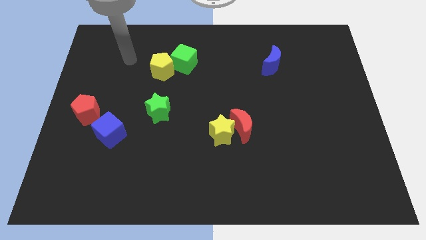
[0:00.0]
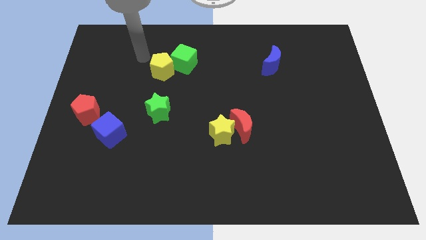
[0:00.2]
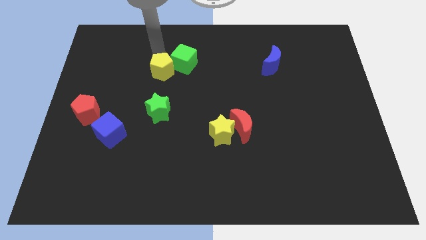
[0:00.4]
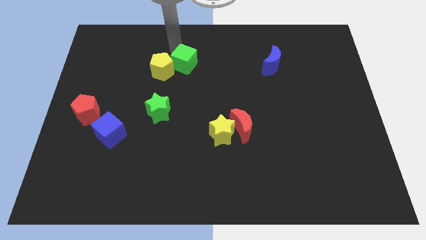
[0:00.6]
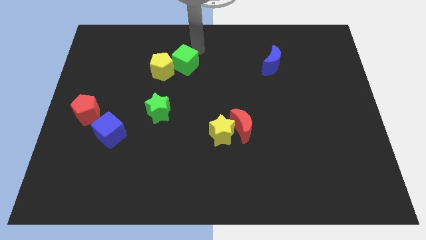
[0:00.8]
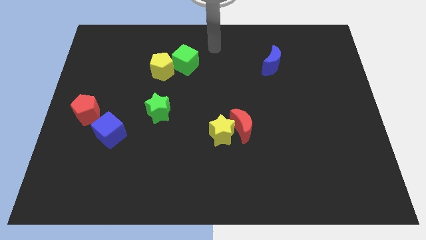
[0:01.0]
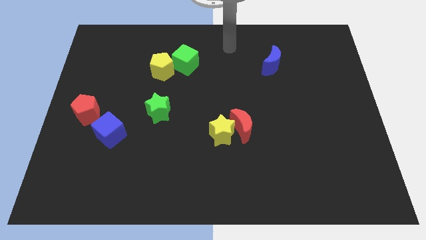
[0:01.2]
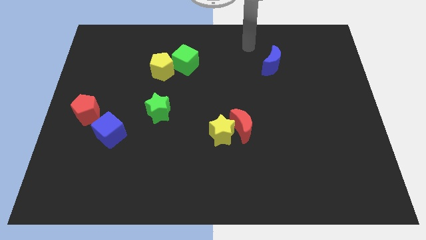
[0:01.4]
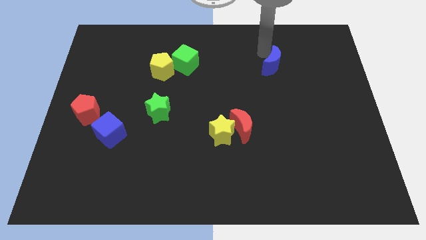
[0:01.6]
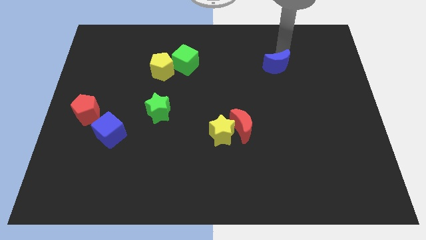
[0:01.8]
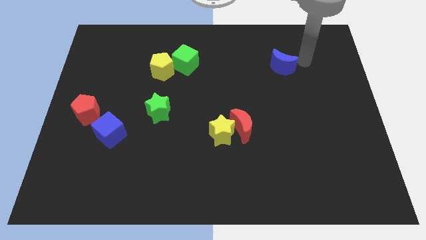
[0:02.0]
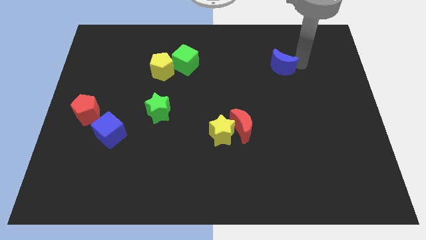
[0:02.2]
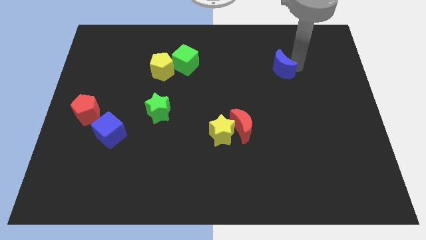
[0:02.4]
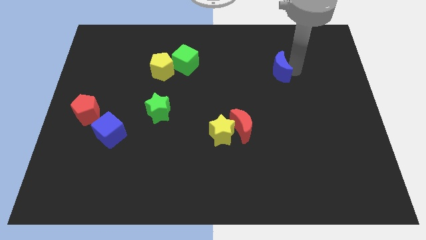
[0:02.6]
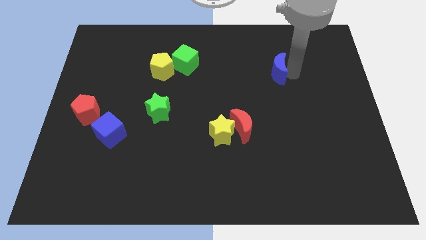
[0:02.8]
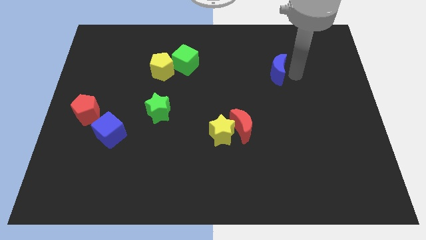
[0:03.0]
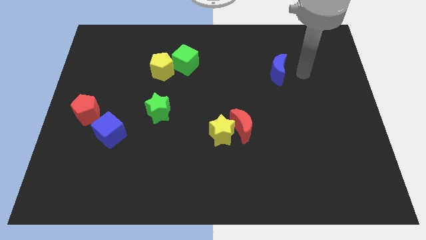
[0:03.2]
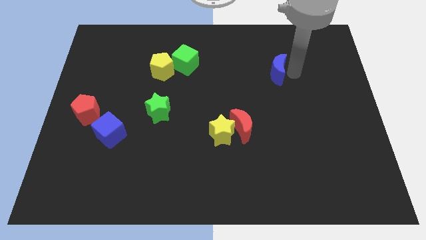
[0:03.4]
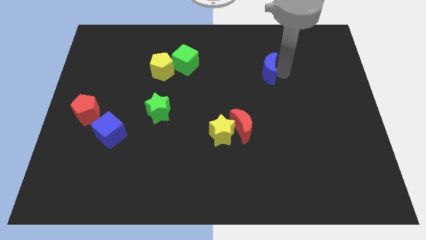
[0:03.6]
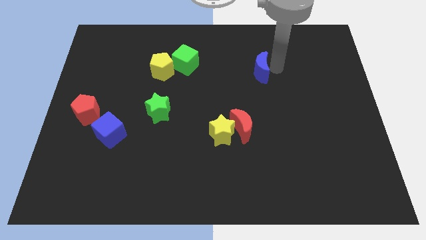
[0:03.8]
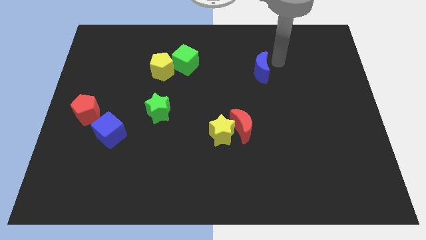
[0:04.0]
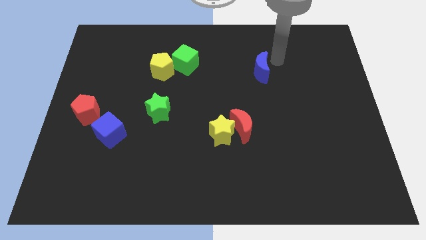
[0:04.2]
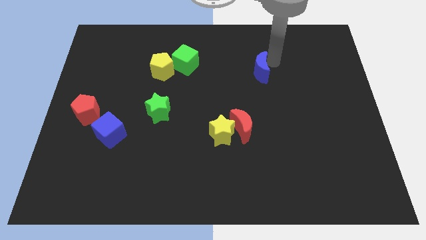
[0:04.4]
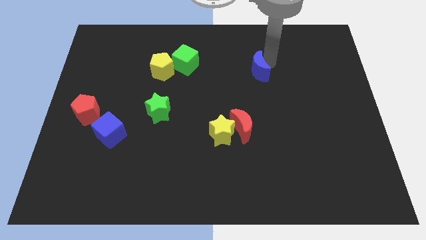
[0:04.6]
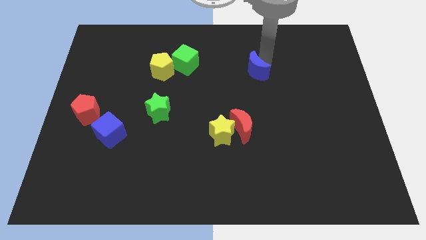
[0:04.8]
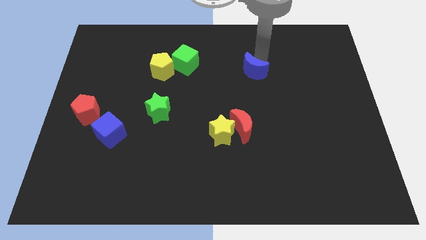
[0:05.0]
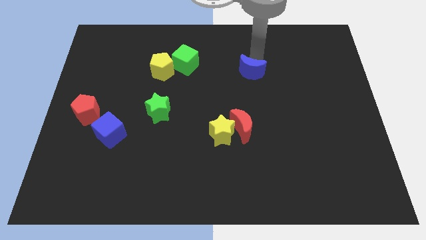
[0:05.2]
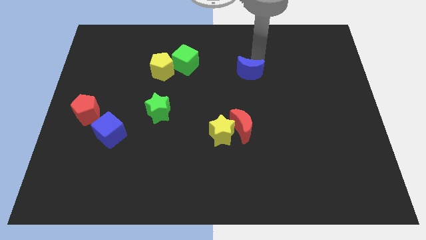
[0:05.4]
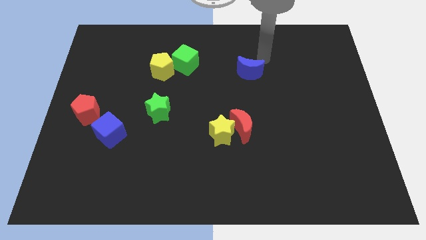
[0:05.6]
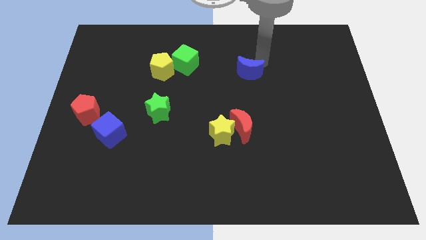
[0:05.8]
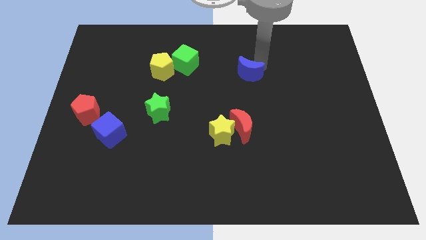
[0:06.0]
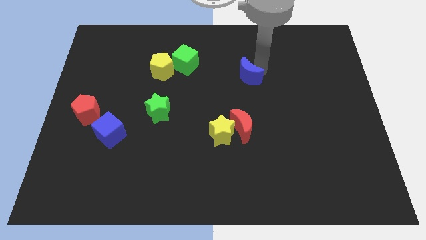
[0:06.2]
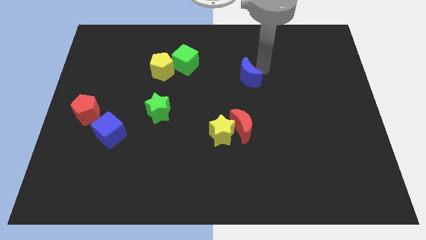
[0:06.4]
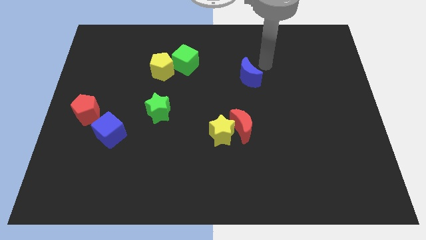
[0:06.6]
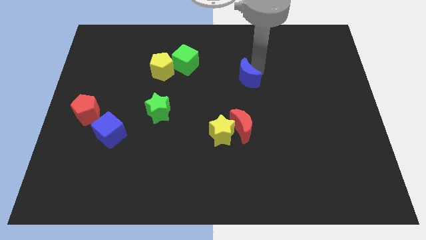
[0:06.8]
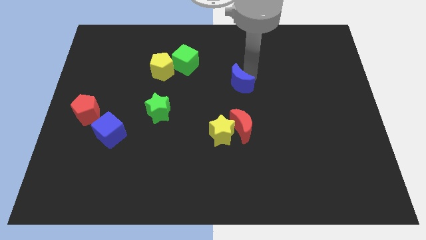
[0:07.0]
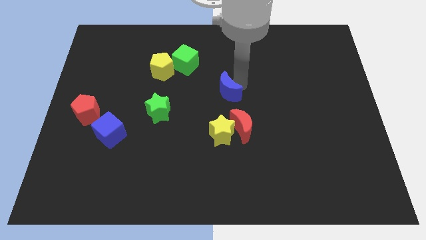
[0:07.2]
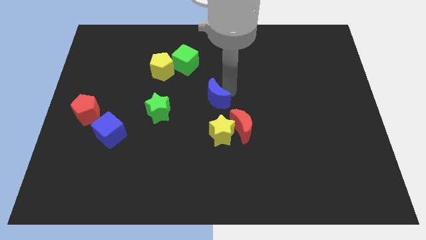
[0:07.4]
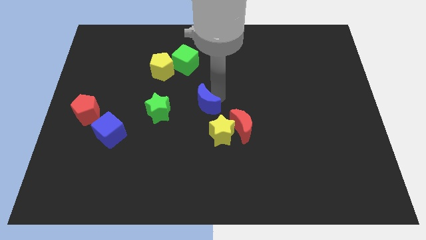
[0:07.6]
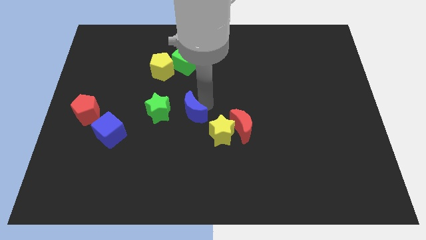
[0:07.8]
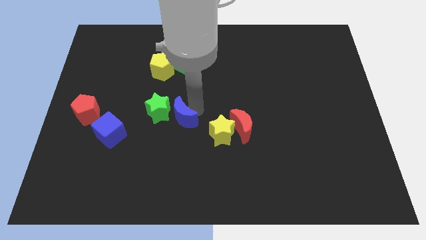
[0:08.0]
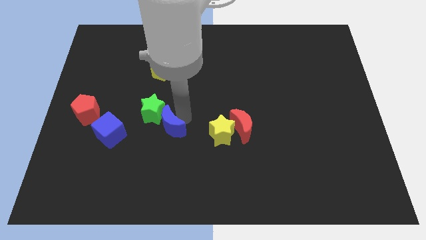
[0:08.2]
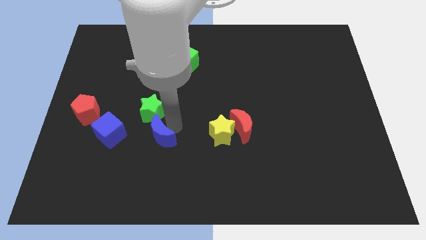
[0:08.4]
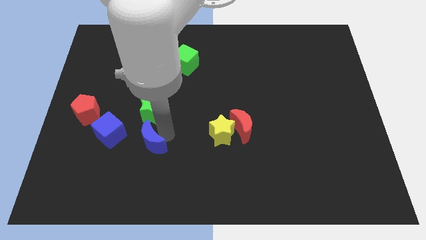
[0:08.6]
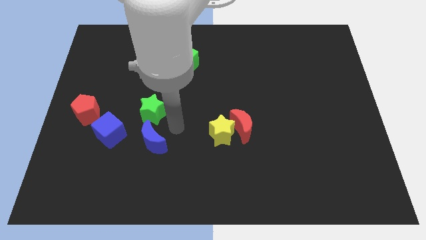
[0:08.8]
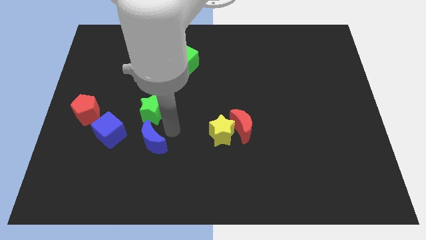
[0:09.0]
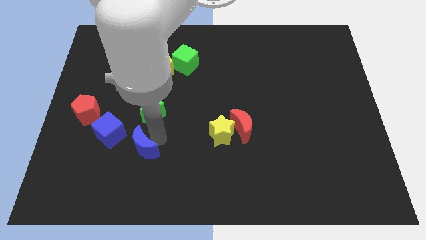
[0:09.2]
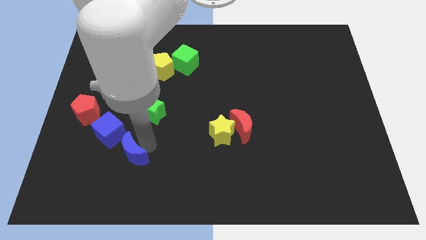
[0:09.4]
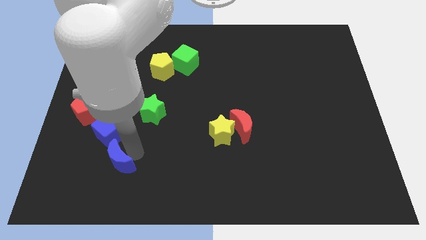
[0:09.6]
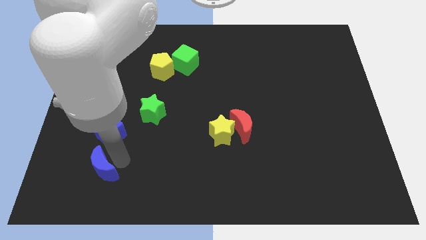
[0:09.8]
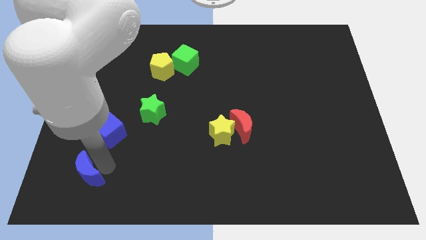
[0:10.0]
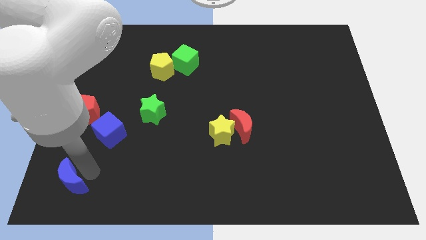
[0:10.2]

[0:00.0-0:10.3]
slide the blue moon to the lower left corner

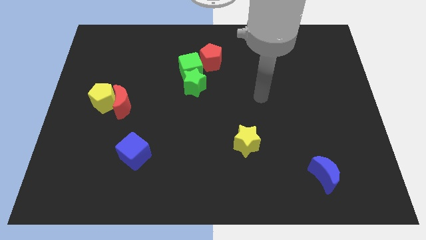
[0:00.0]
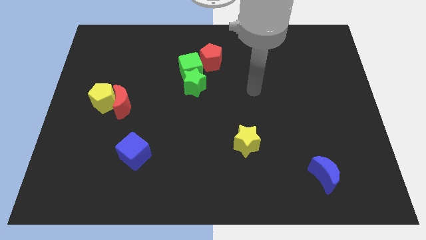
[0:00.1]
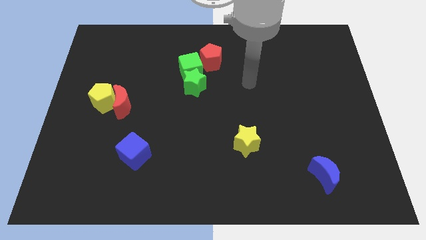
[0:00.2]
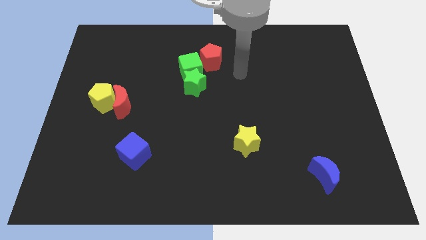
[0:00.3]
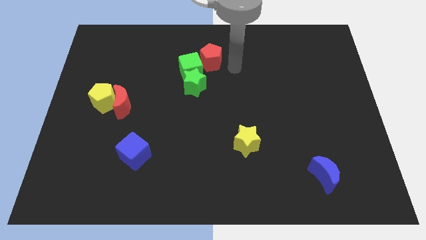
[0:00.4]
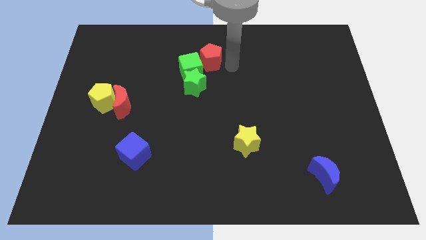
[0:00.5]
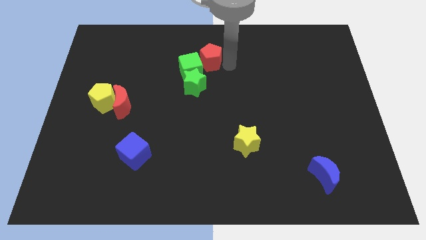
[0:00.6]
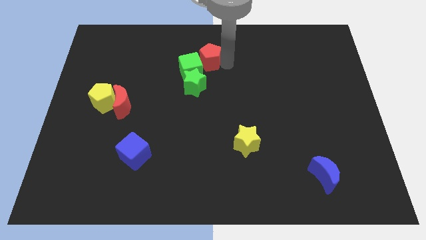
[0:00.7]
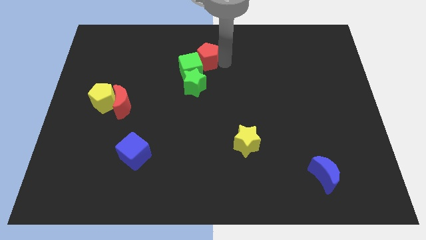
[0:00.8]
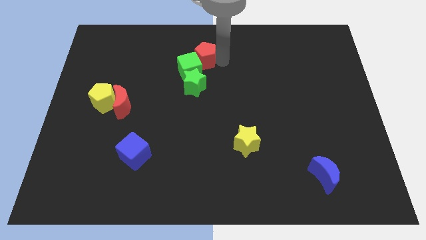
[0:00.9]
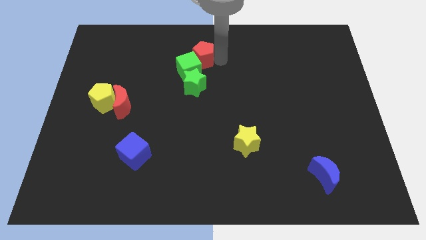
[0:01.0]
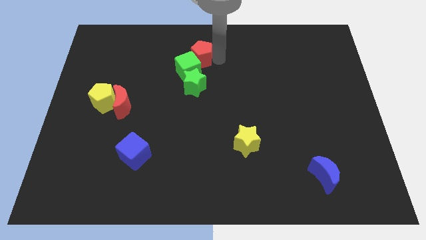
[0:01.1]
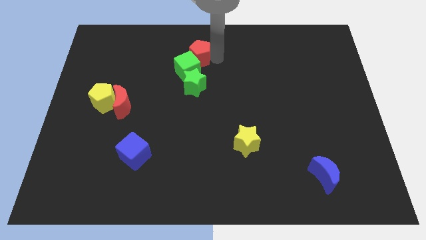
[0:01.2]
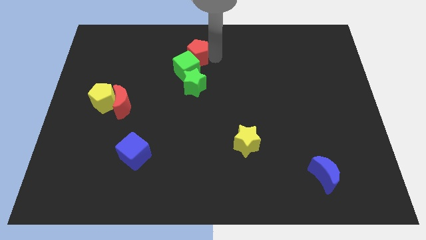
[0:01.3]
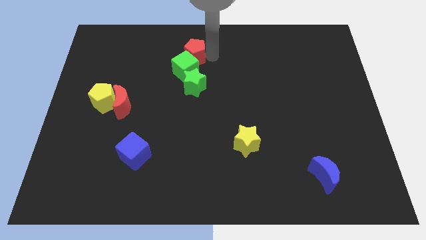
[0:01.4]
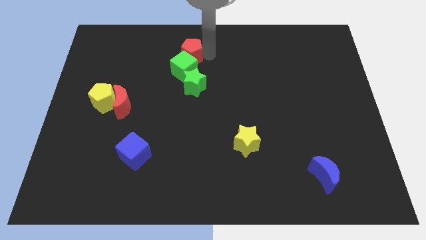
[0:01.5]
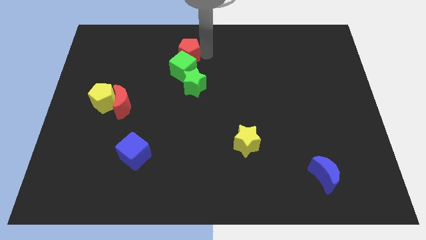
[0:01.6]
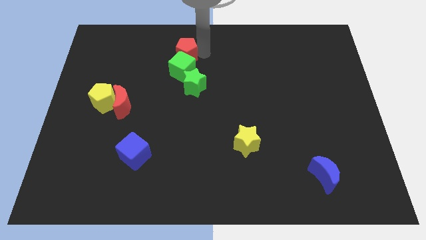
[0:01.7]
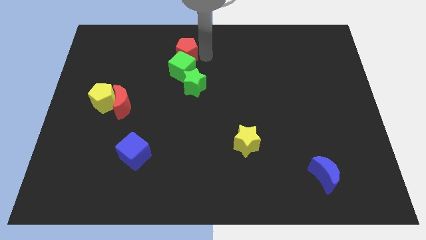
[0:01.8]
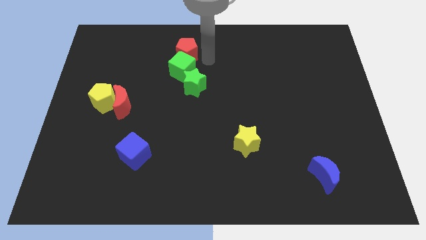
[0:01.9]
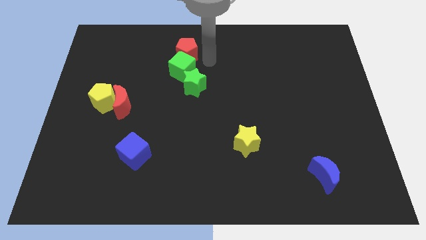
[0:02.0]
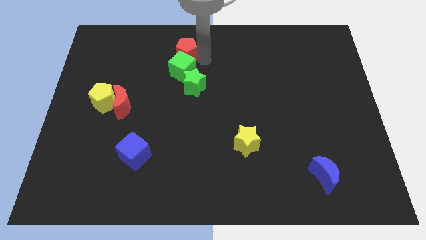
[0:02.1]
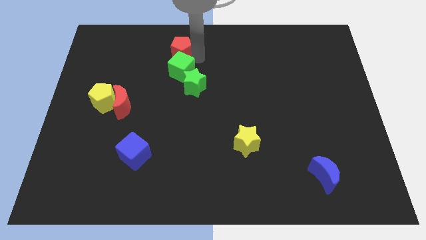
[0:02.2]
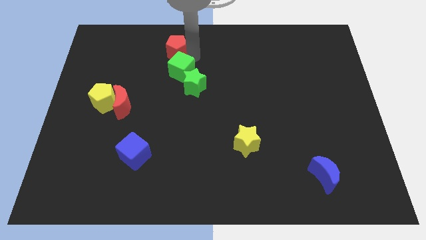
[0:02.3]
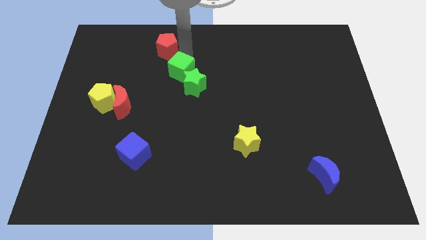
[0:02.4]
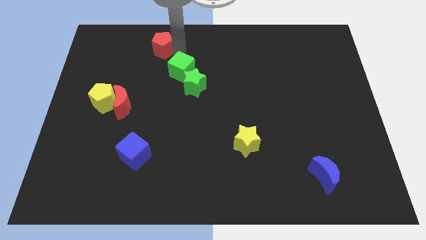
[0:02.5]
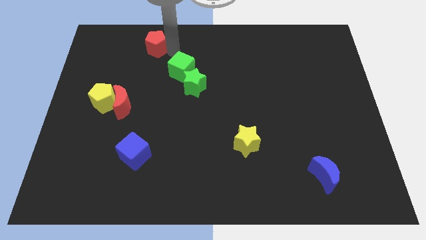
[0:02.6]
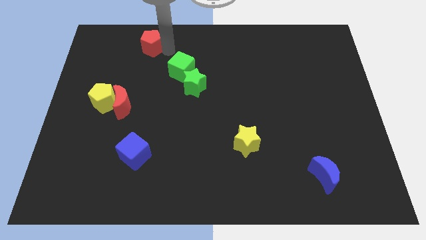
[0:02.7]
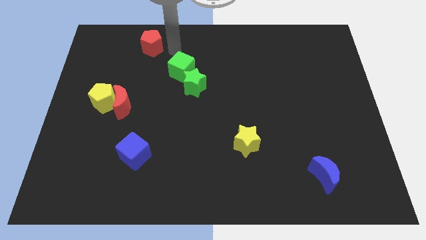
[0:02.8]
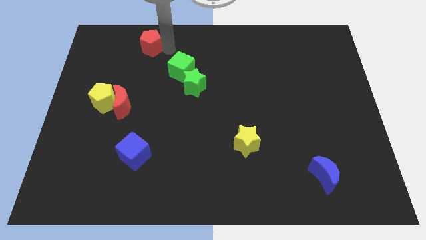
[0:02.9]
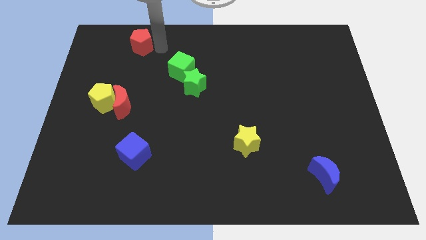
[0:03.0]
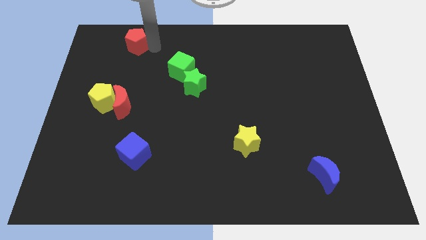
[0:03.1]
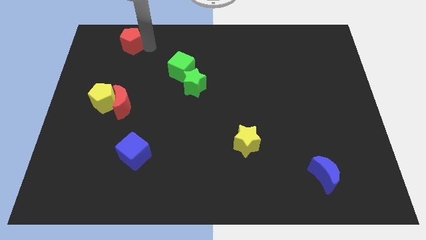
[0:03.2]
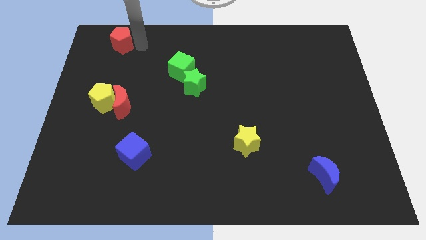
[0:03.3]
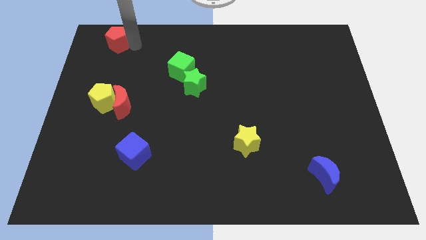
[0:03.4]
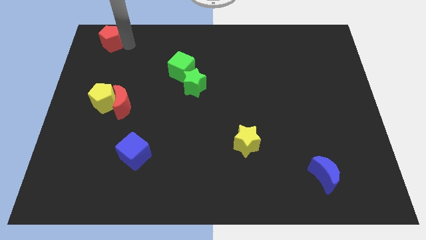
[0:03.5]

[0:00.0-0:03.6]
move the red pentagon to the upper left corner
